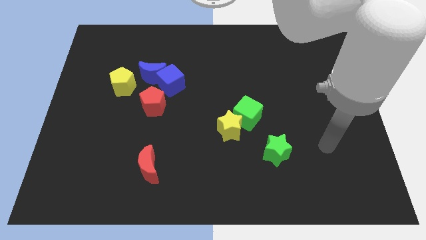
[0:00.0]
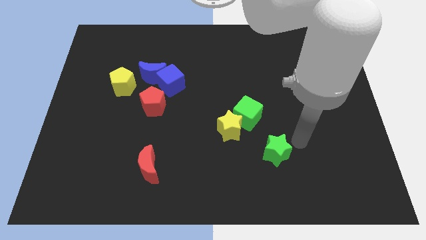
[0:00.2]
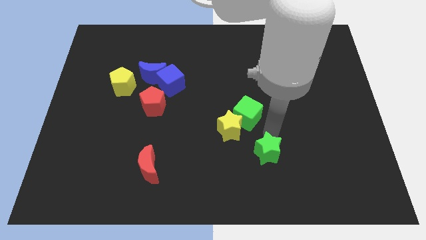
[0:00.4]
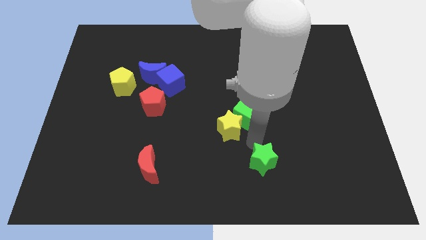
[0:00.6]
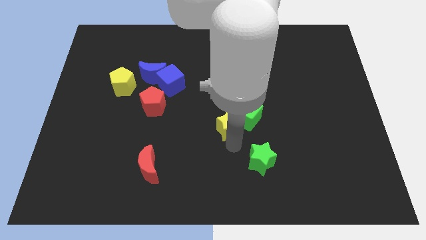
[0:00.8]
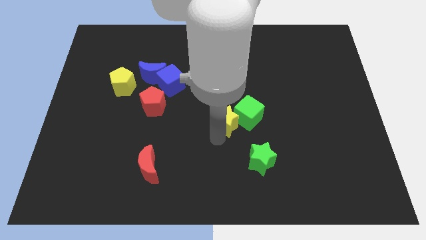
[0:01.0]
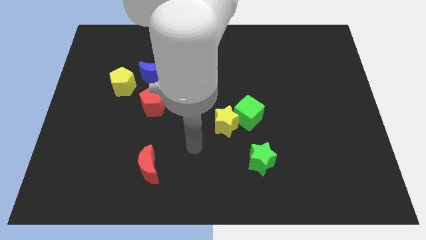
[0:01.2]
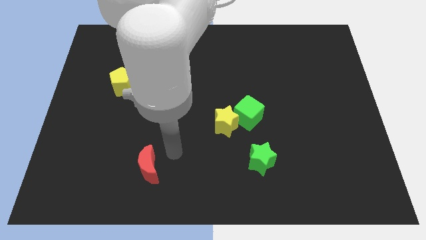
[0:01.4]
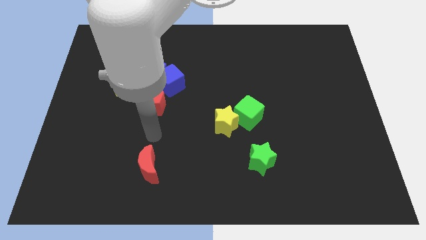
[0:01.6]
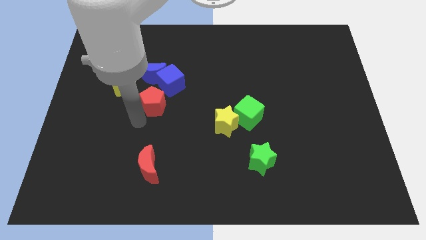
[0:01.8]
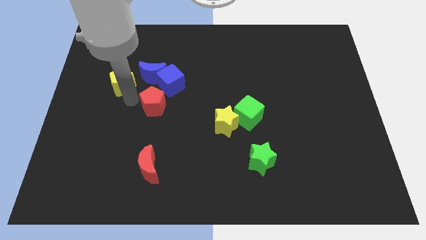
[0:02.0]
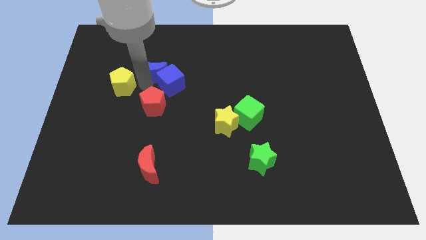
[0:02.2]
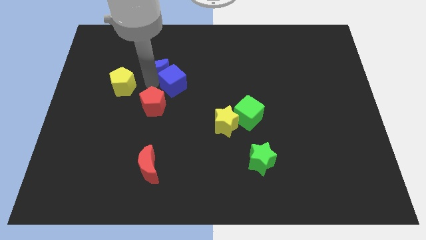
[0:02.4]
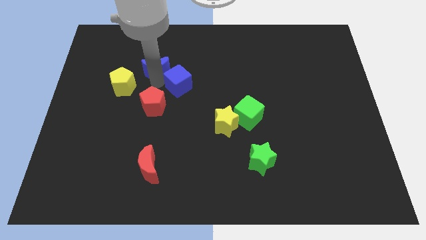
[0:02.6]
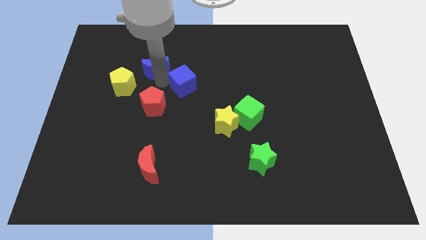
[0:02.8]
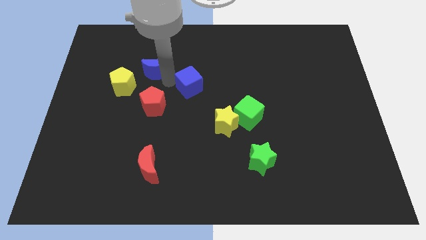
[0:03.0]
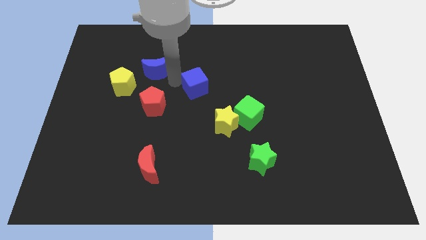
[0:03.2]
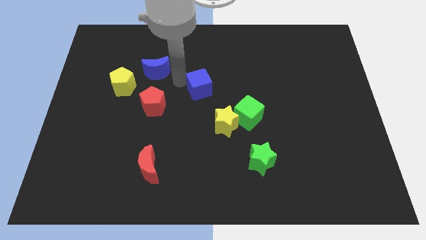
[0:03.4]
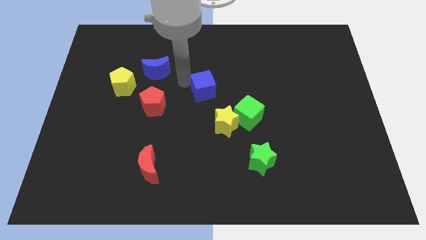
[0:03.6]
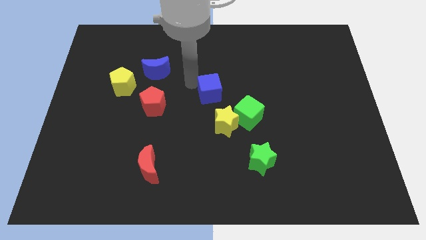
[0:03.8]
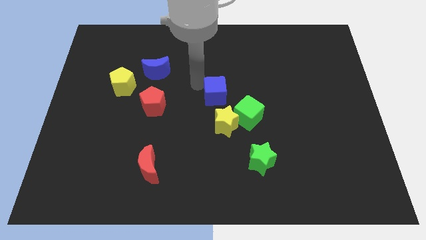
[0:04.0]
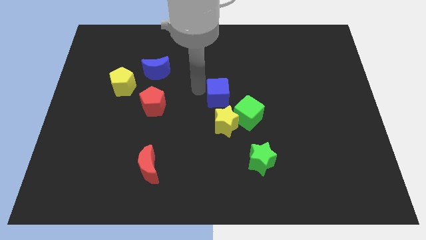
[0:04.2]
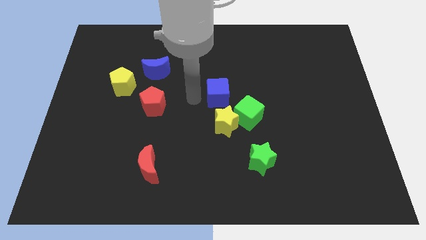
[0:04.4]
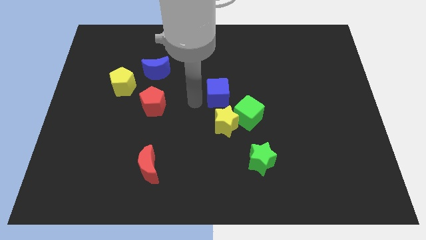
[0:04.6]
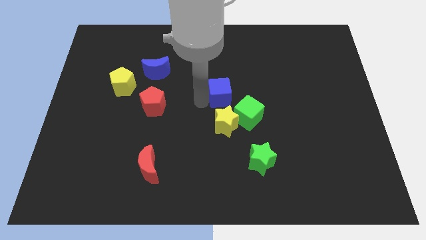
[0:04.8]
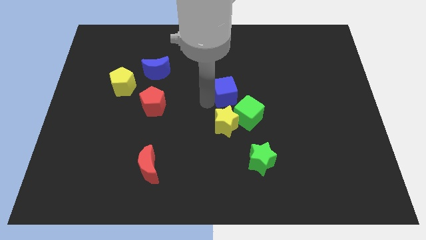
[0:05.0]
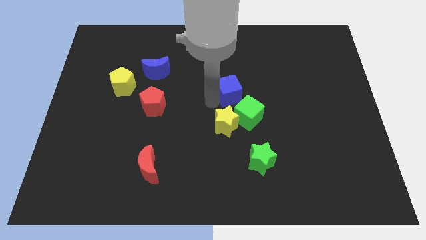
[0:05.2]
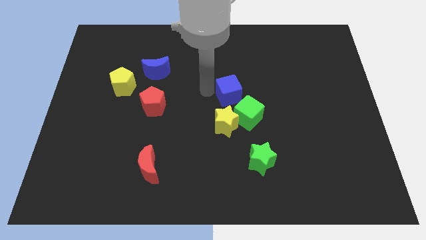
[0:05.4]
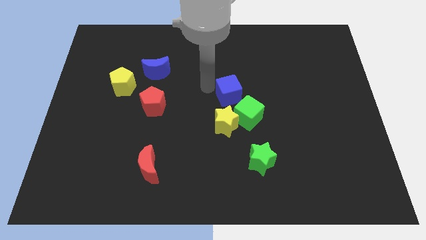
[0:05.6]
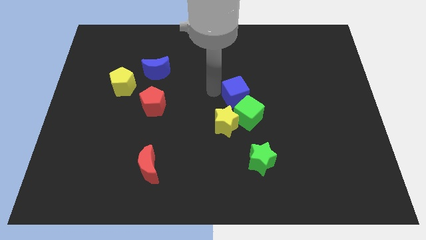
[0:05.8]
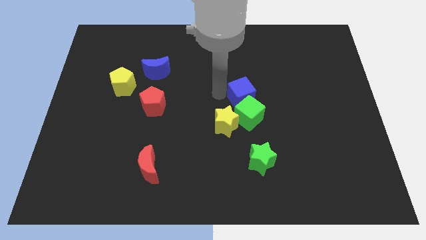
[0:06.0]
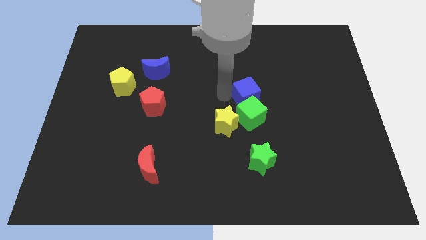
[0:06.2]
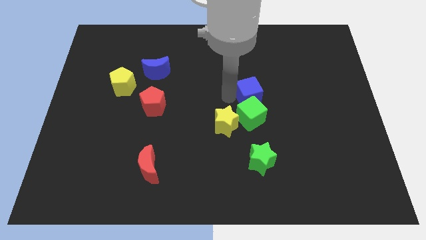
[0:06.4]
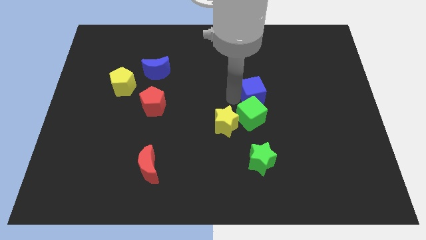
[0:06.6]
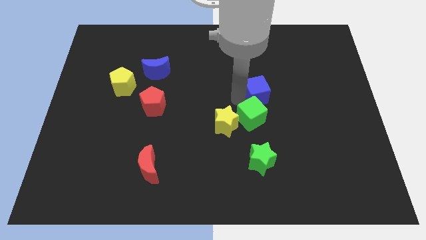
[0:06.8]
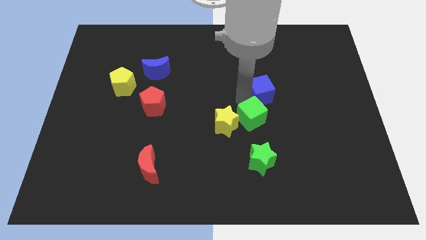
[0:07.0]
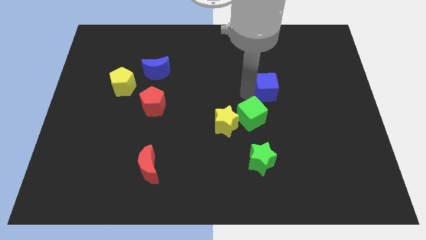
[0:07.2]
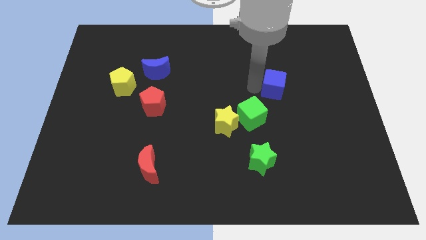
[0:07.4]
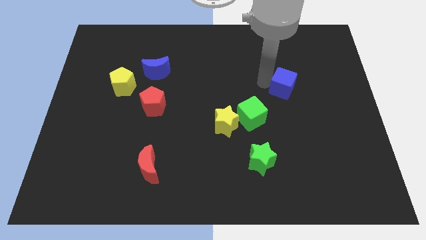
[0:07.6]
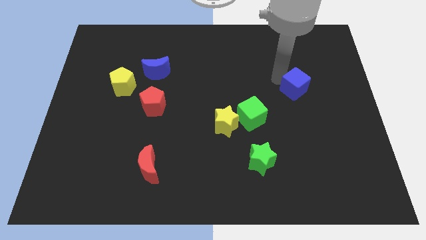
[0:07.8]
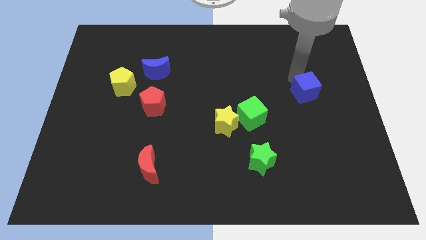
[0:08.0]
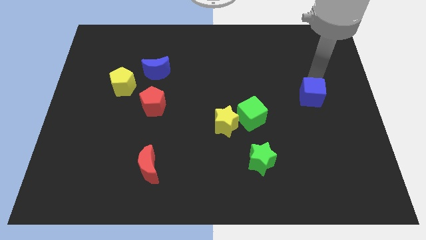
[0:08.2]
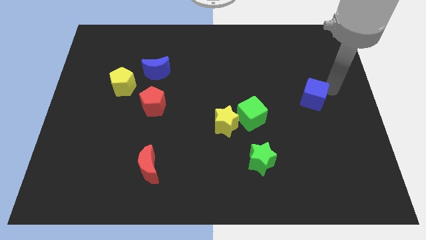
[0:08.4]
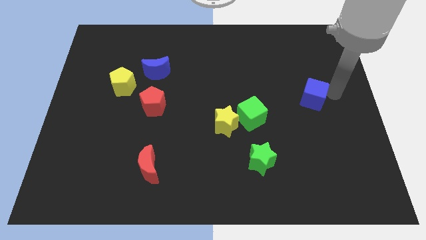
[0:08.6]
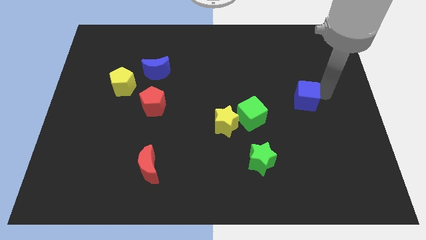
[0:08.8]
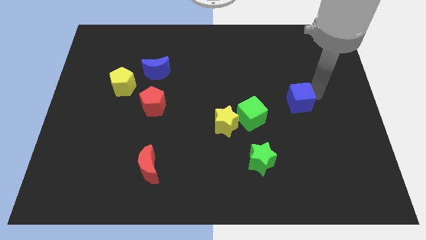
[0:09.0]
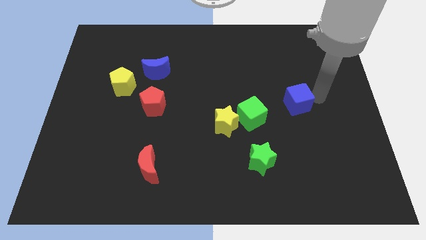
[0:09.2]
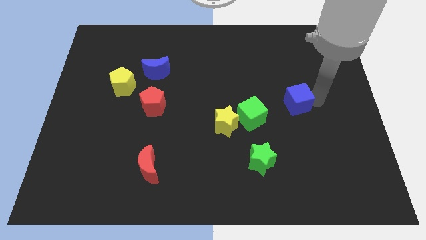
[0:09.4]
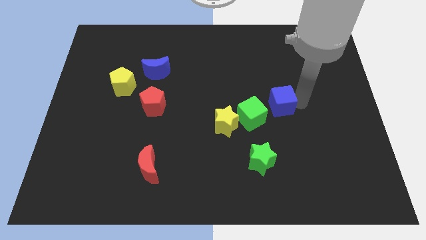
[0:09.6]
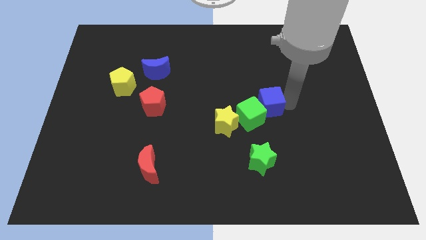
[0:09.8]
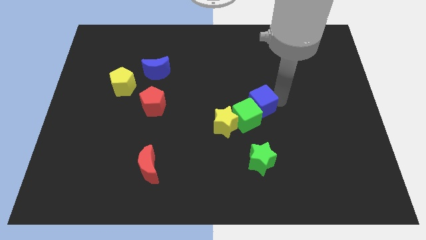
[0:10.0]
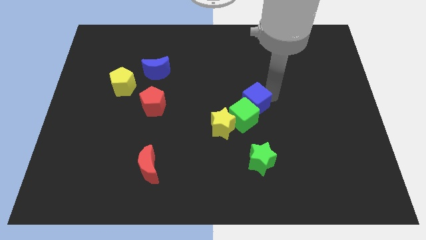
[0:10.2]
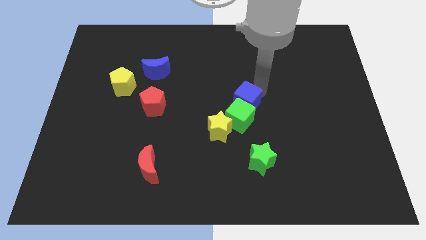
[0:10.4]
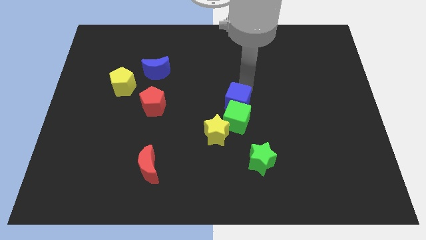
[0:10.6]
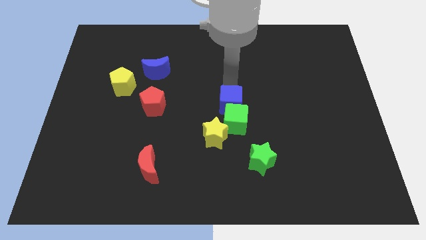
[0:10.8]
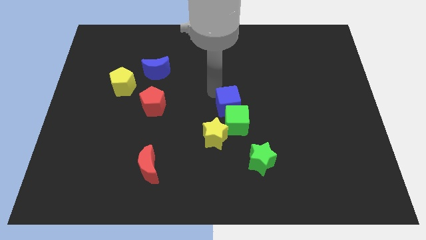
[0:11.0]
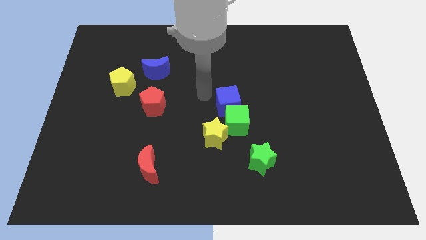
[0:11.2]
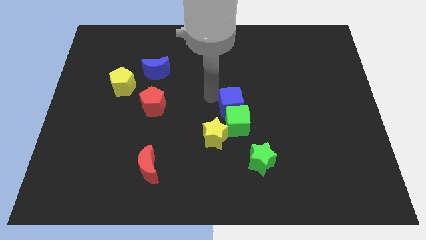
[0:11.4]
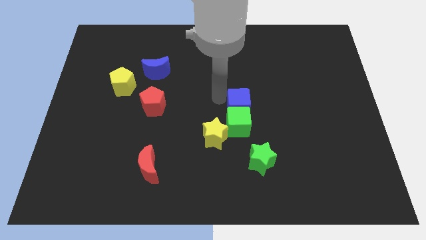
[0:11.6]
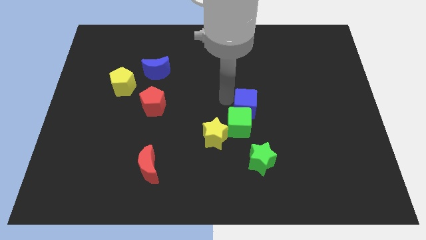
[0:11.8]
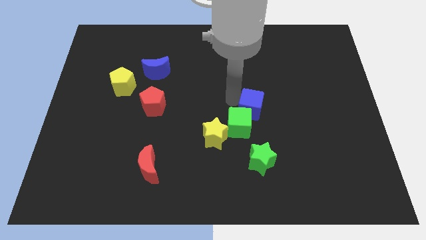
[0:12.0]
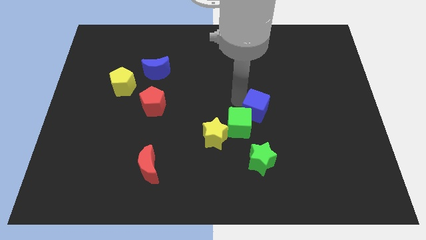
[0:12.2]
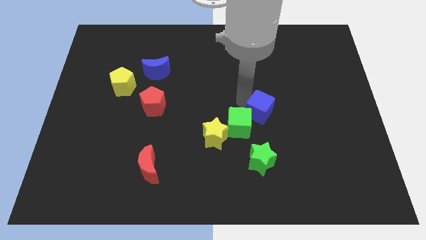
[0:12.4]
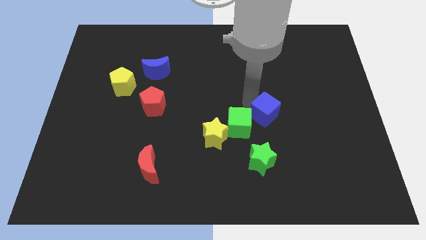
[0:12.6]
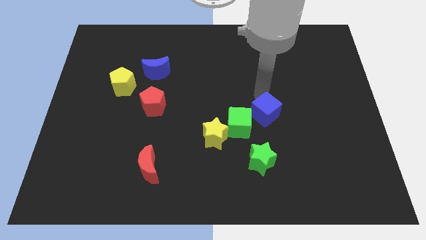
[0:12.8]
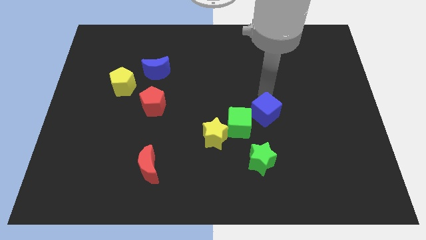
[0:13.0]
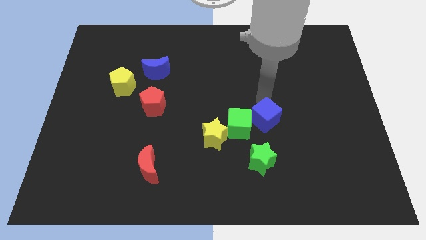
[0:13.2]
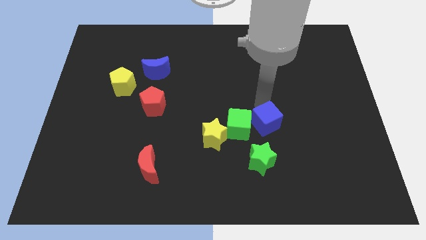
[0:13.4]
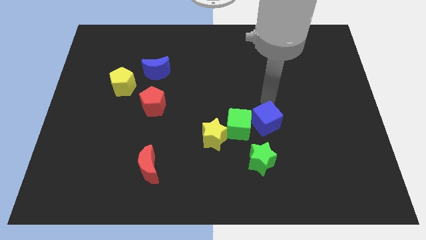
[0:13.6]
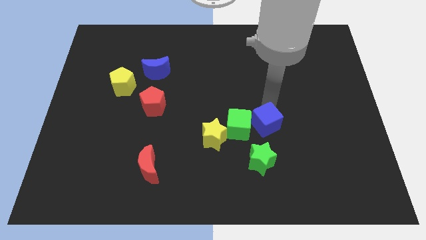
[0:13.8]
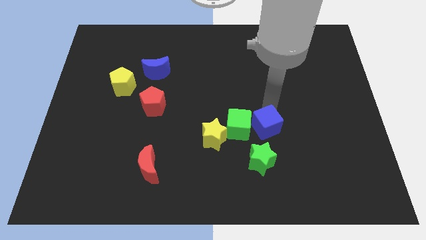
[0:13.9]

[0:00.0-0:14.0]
push the blue cube to the bottom right side of the green cube

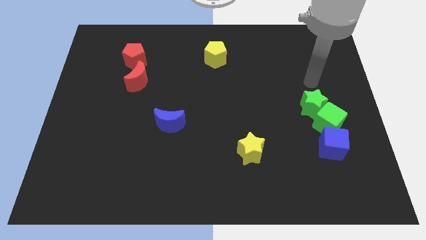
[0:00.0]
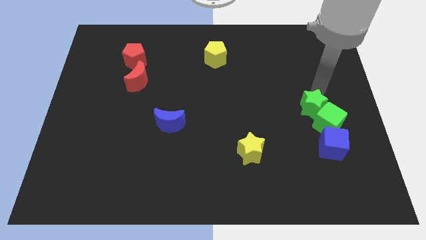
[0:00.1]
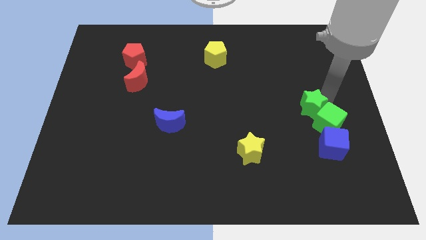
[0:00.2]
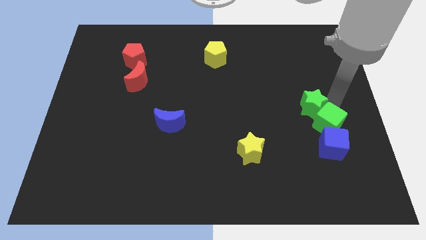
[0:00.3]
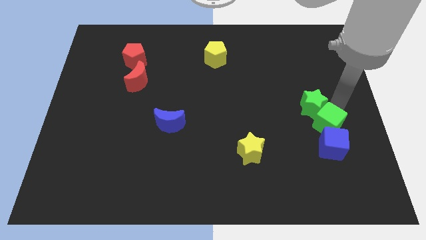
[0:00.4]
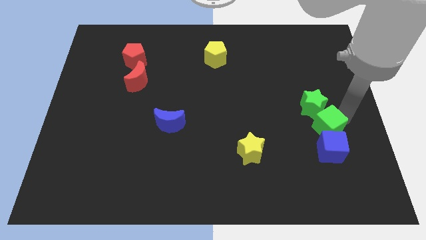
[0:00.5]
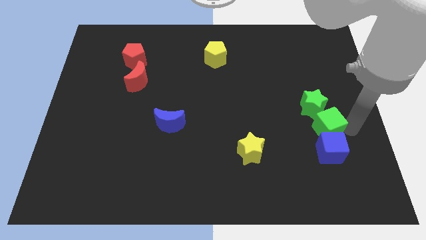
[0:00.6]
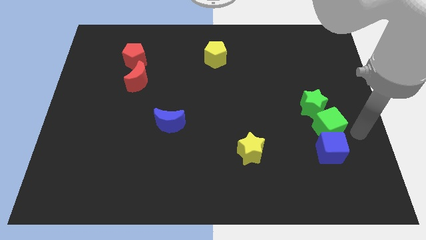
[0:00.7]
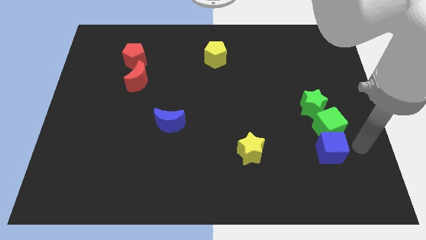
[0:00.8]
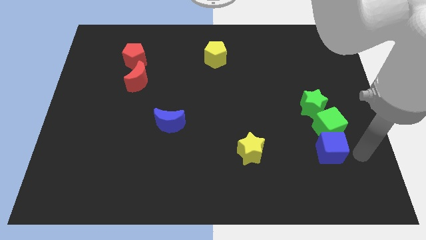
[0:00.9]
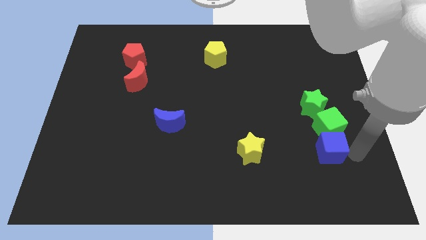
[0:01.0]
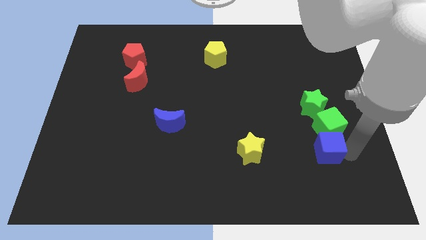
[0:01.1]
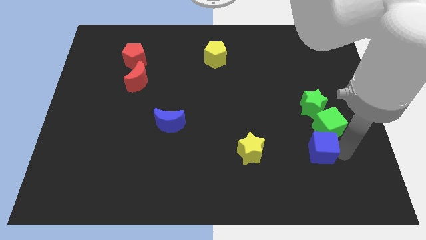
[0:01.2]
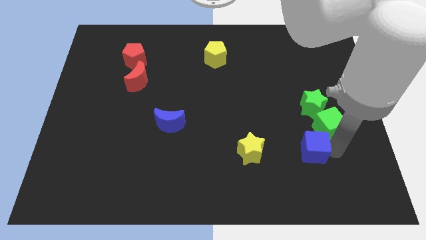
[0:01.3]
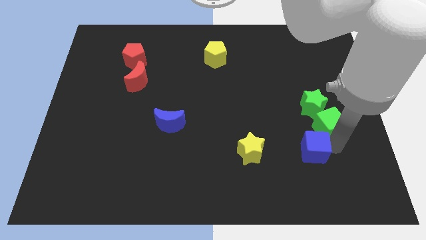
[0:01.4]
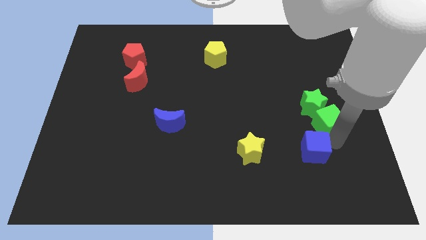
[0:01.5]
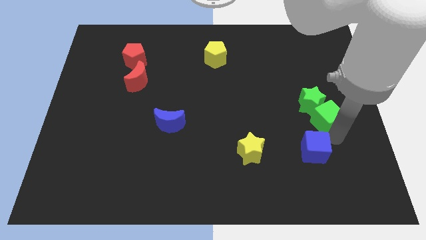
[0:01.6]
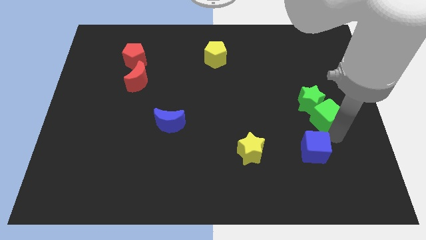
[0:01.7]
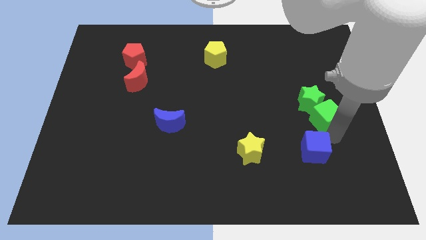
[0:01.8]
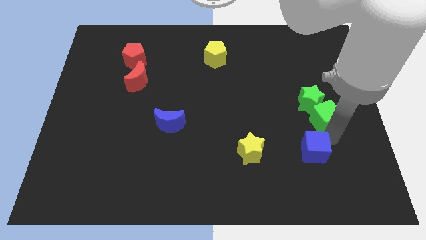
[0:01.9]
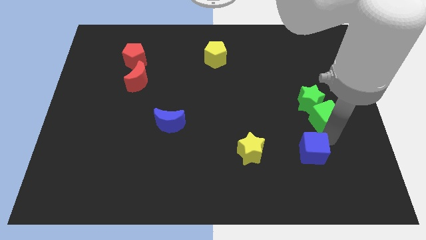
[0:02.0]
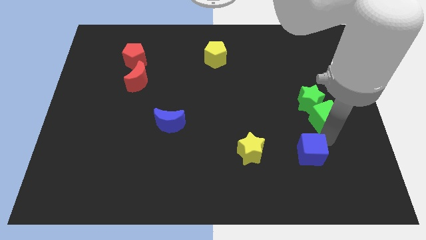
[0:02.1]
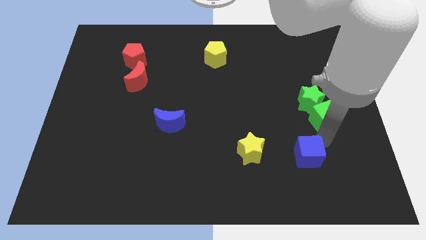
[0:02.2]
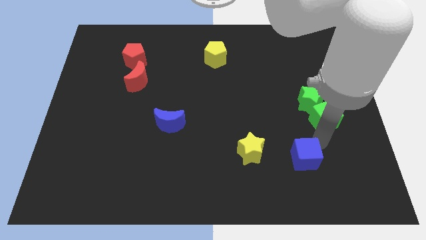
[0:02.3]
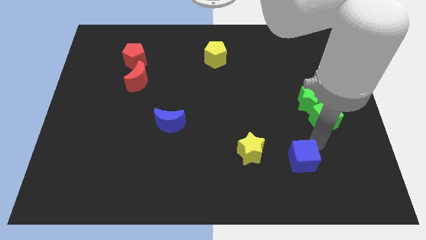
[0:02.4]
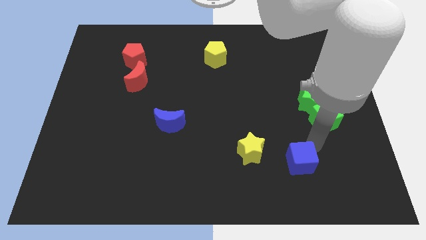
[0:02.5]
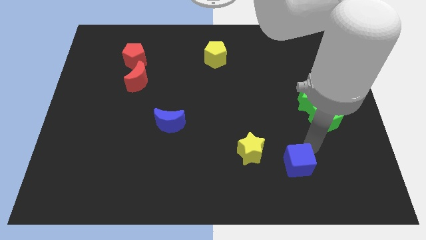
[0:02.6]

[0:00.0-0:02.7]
push the blue cube diagonally down and to the right of the yellow star
